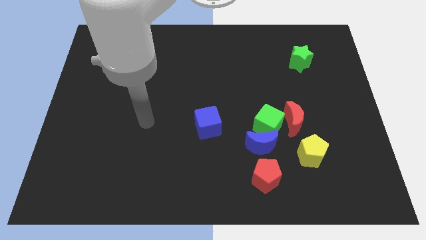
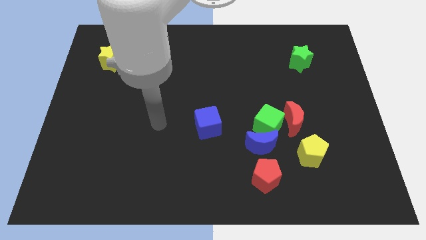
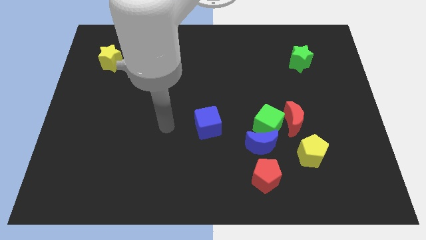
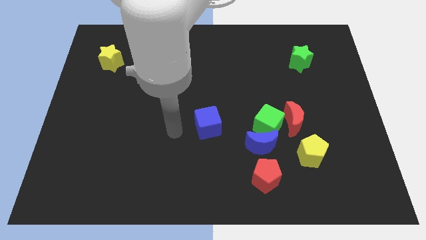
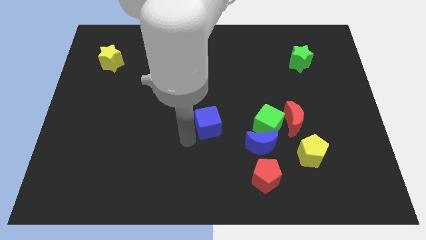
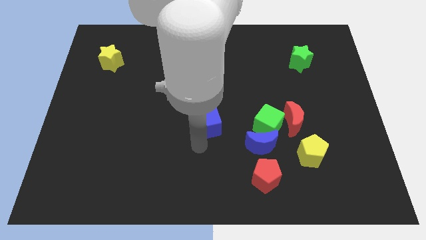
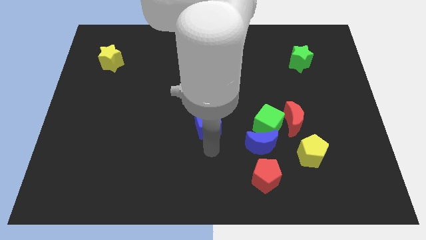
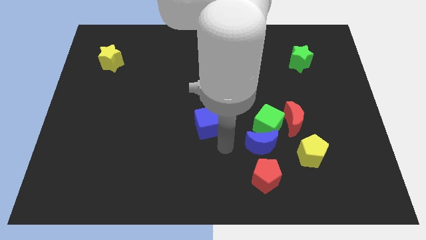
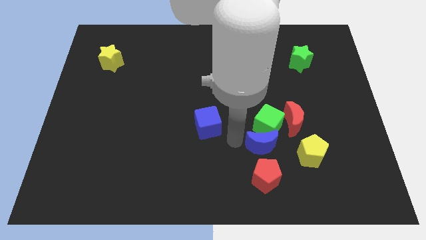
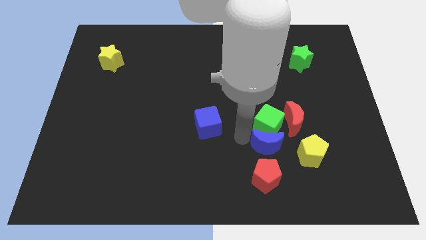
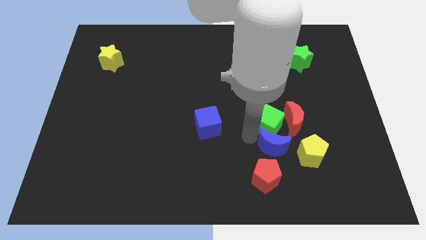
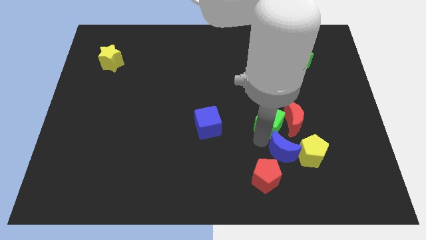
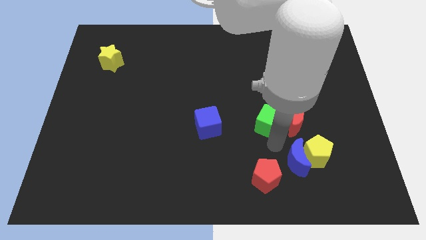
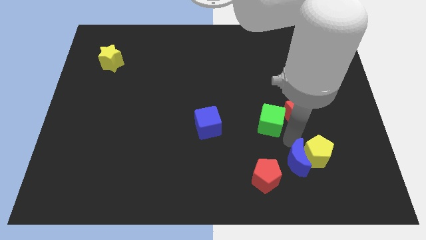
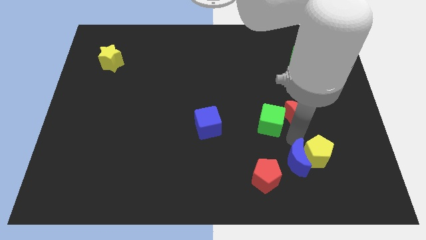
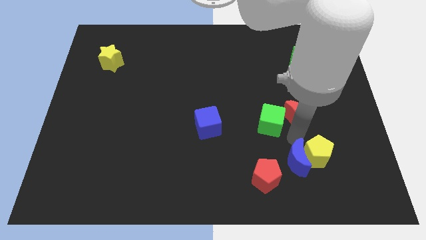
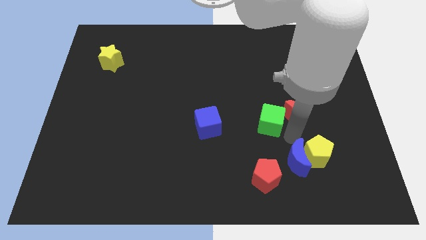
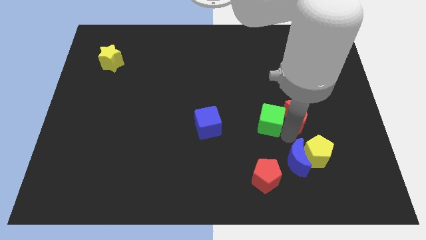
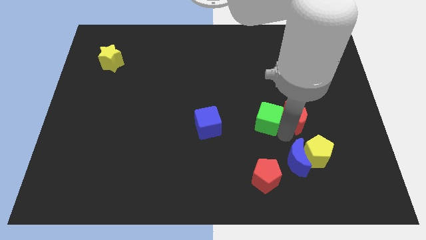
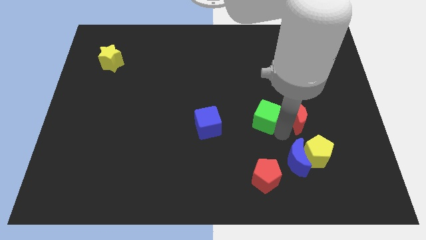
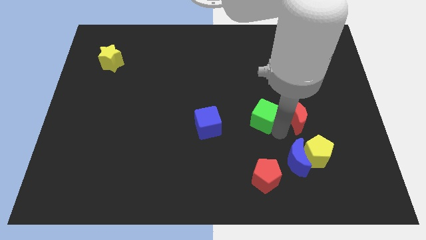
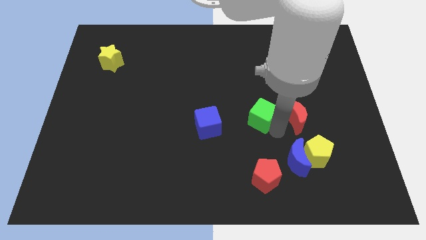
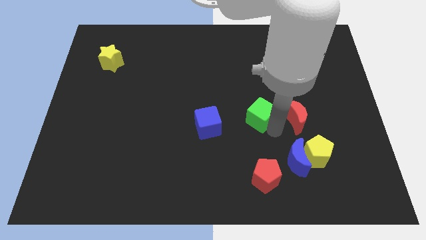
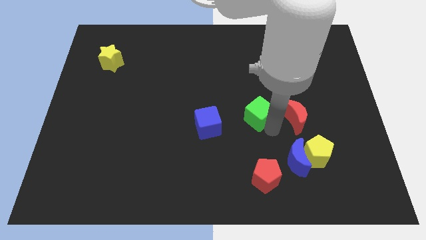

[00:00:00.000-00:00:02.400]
pull the green cube apart from the blue moon and red moon

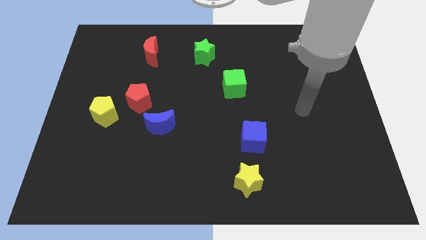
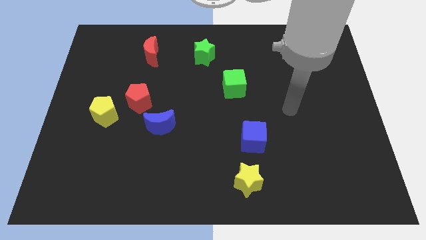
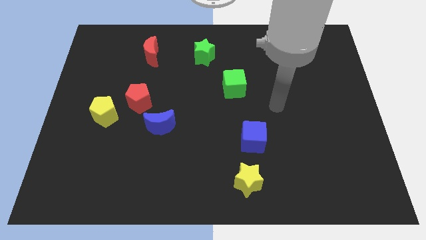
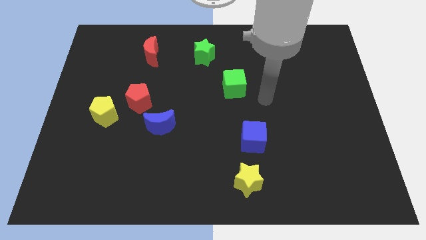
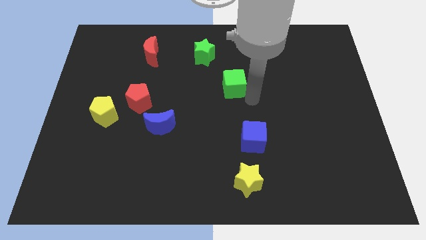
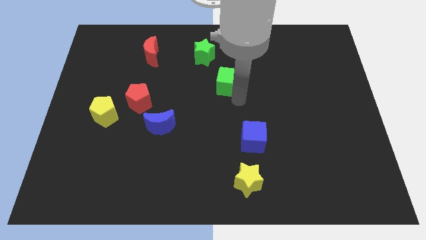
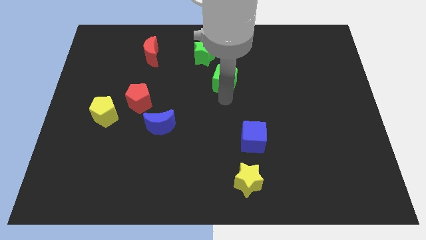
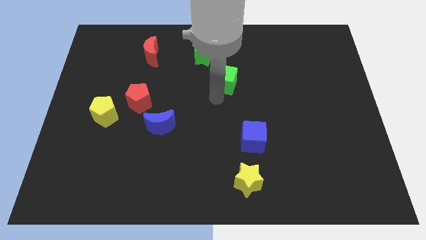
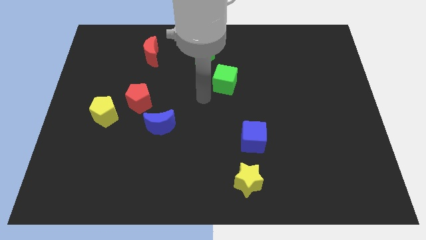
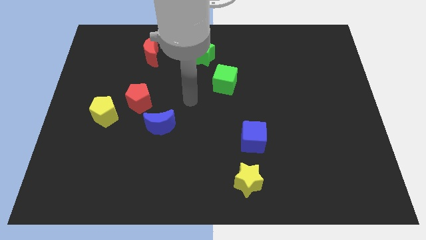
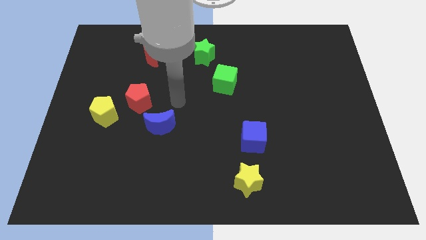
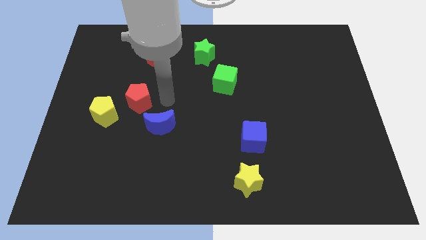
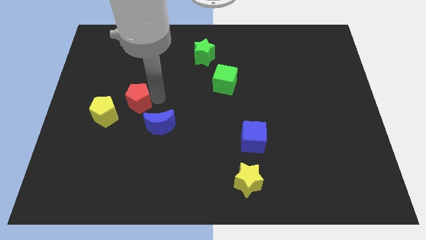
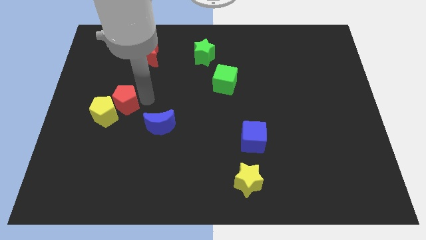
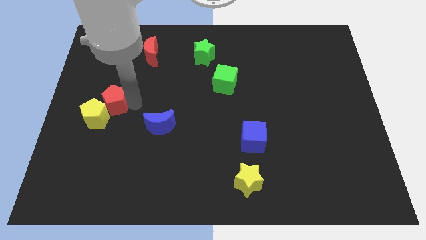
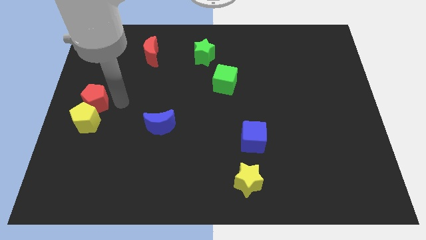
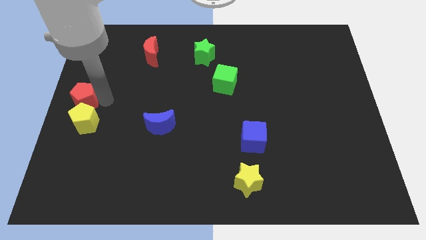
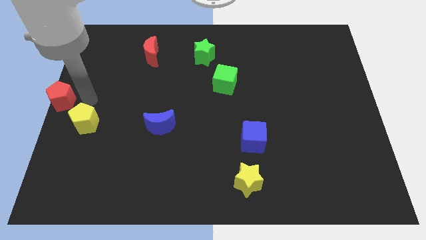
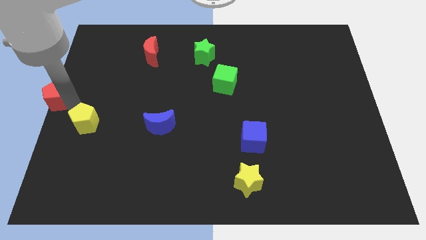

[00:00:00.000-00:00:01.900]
separate the yellow pentagon from the red pentagon

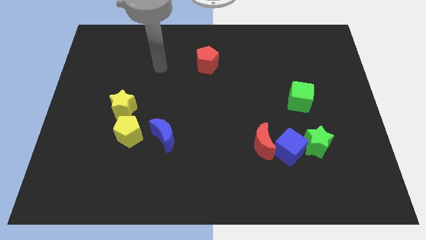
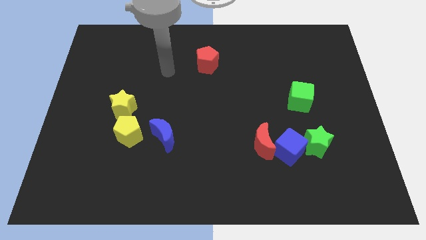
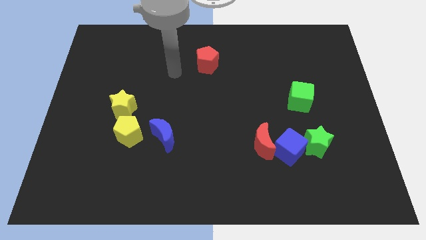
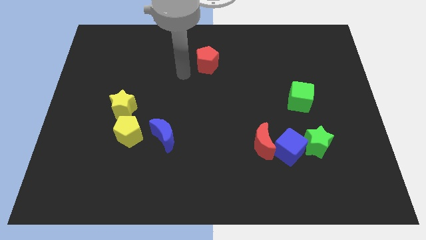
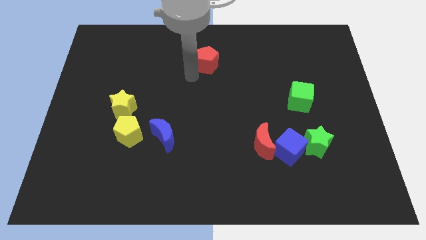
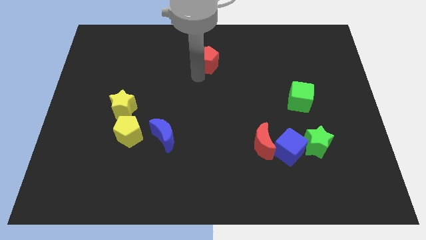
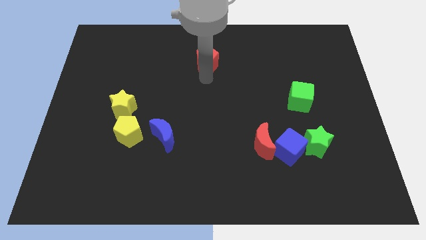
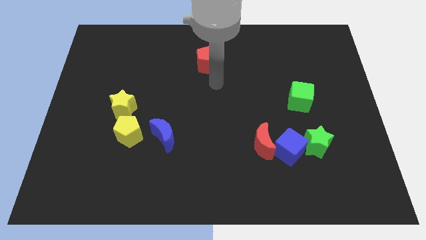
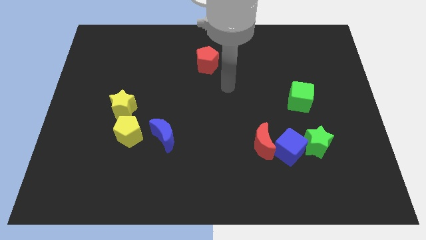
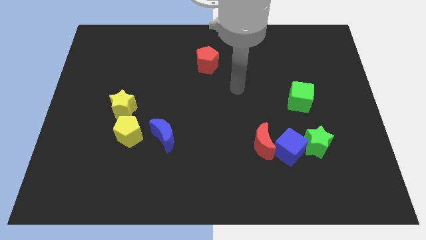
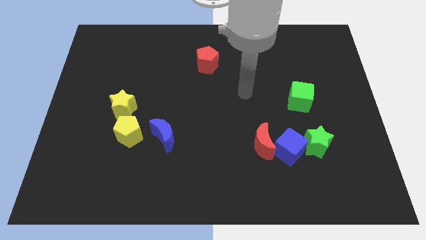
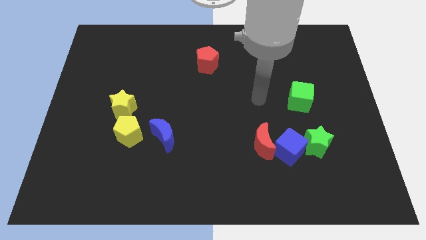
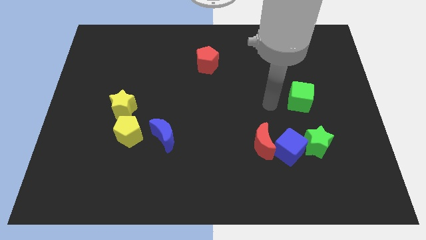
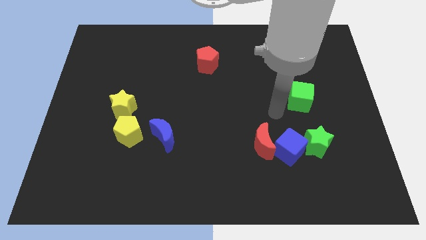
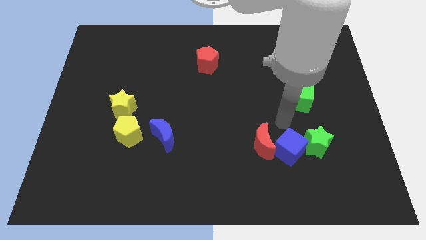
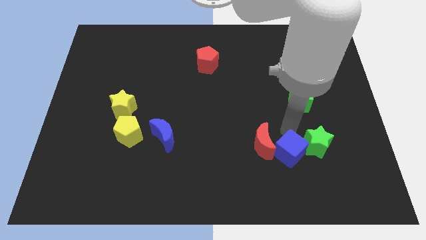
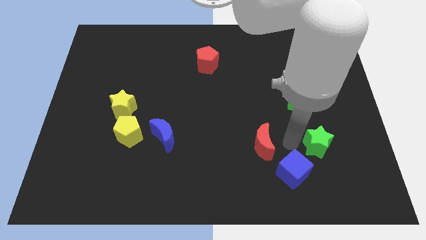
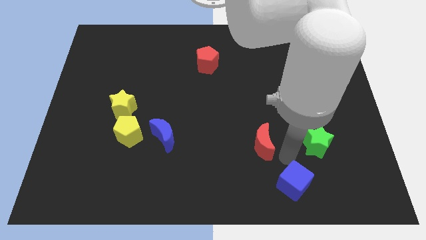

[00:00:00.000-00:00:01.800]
separate the red moon from the blue cube

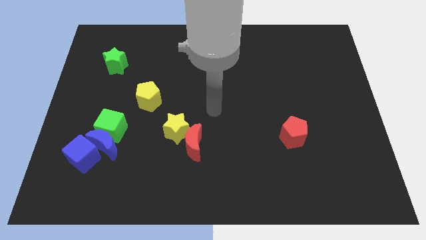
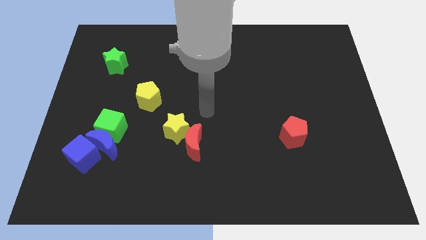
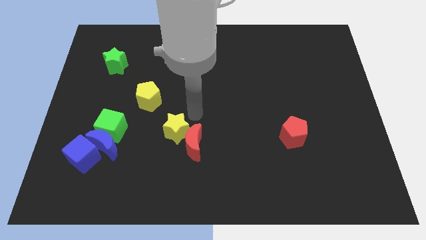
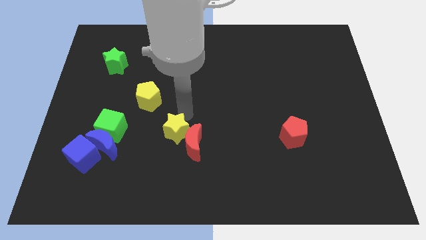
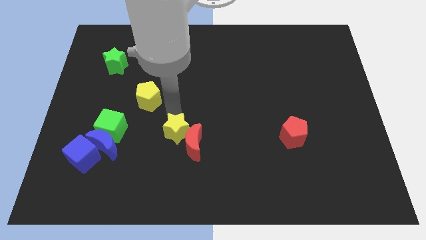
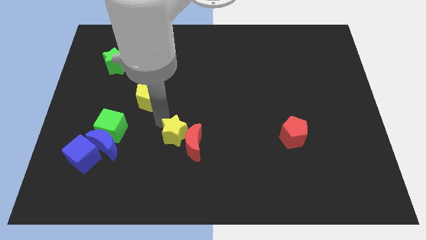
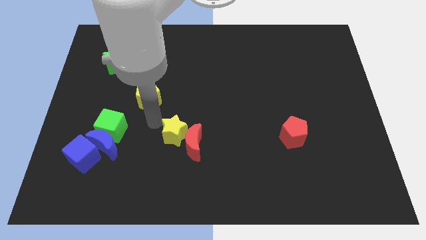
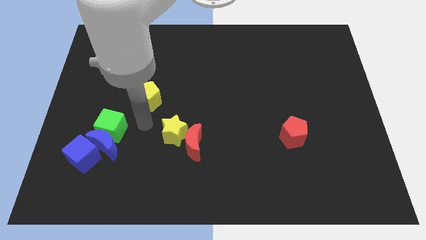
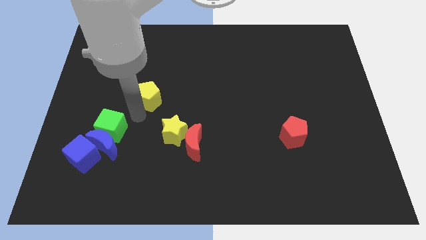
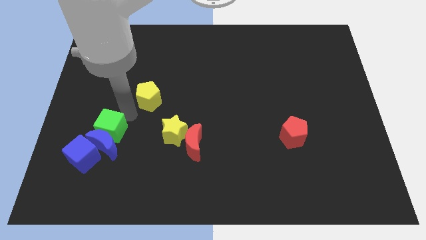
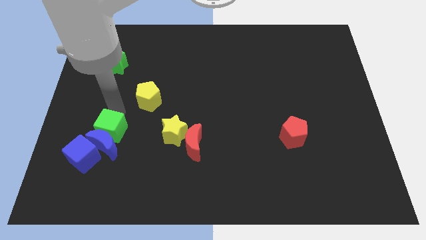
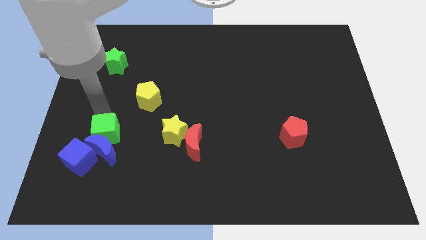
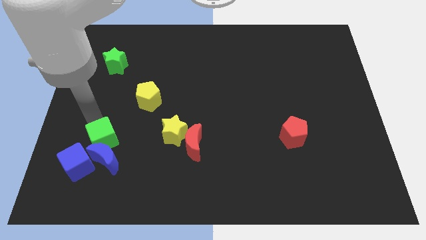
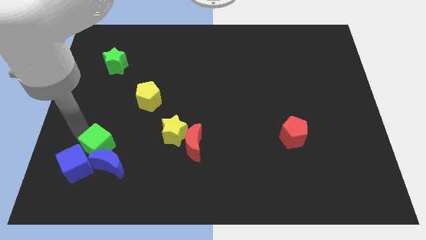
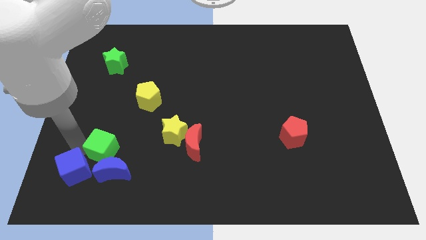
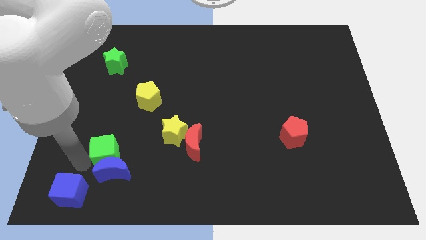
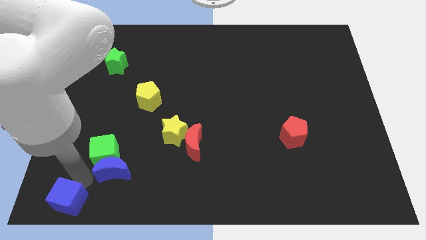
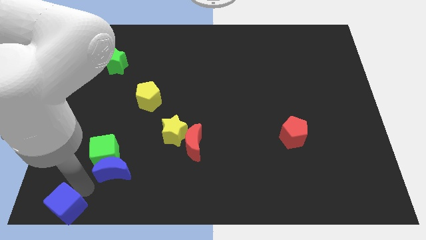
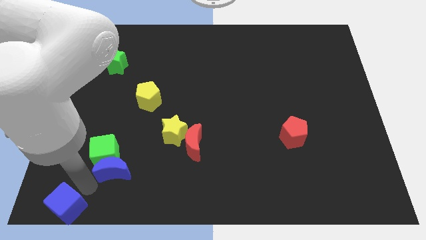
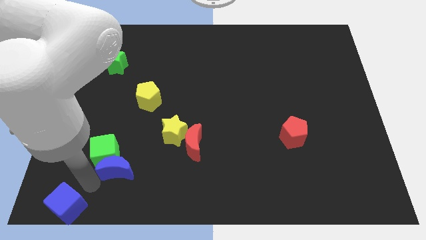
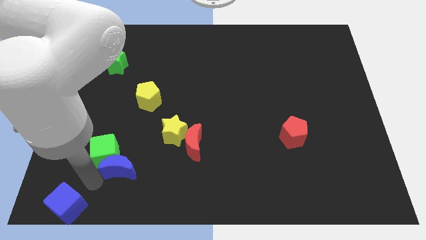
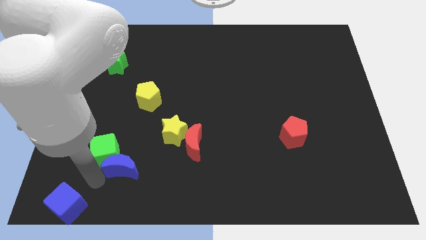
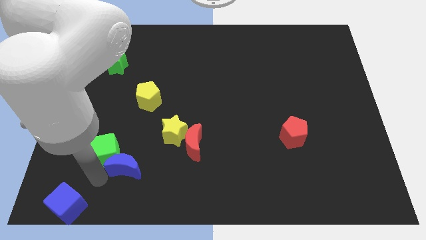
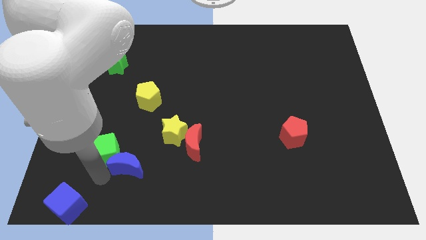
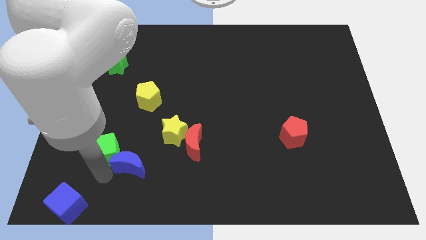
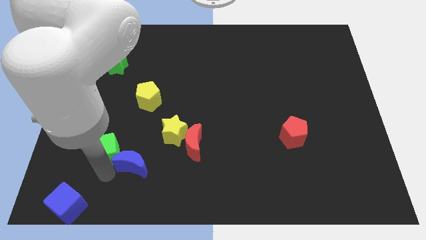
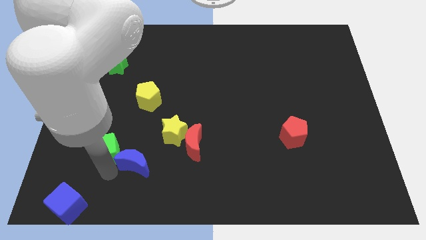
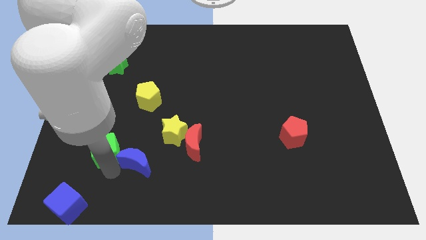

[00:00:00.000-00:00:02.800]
separate the blue moon from the green cube and blue cube

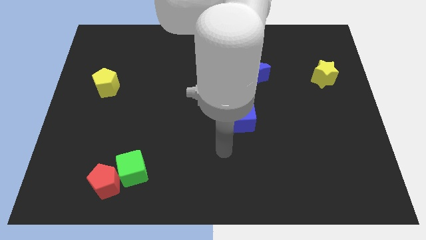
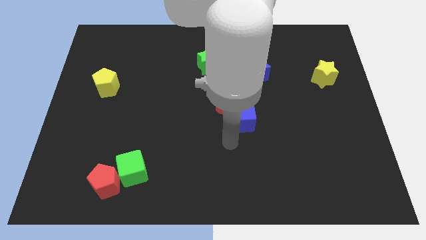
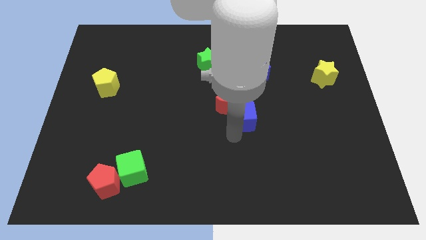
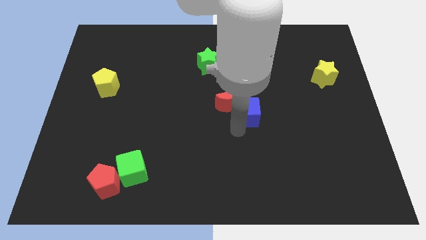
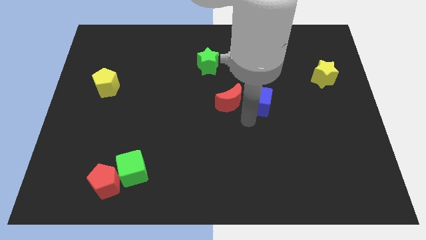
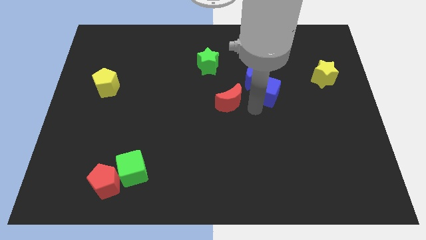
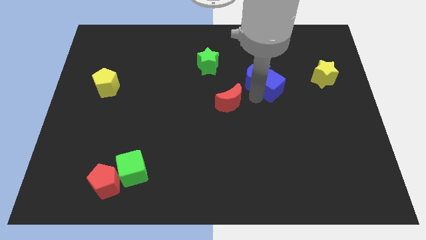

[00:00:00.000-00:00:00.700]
pull the red moon apart from the blue cube
